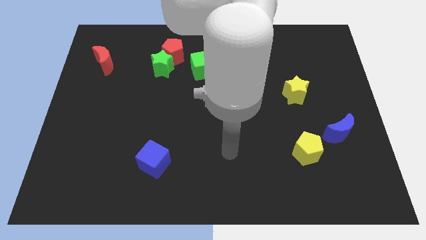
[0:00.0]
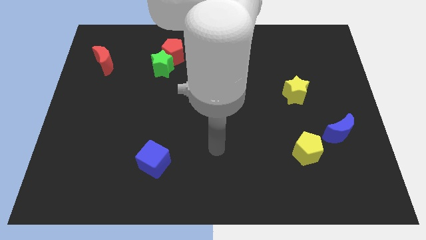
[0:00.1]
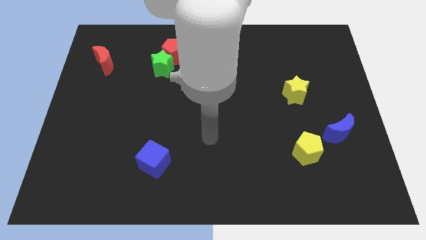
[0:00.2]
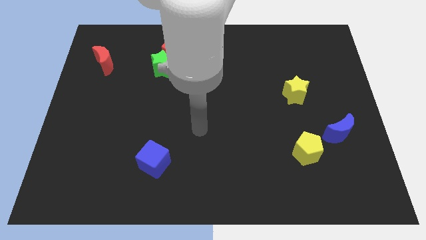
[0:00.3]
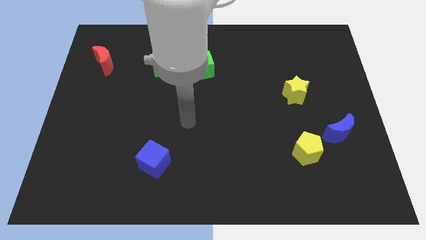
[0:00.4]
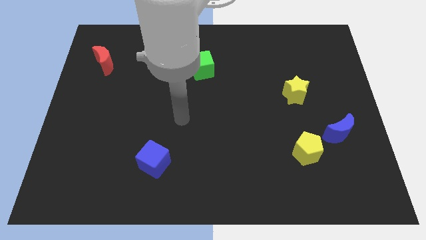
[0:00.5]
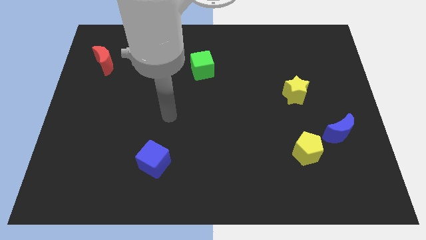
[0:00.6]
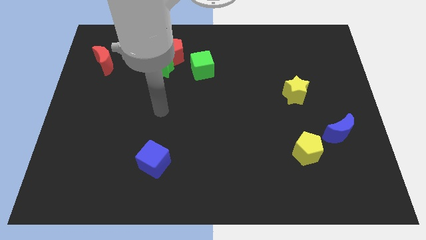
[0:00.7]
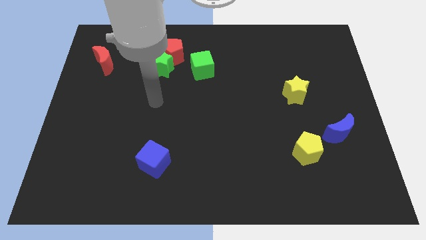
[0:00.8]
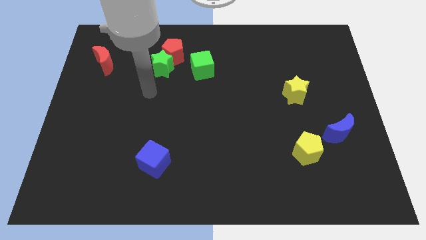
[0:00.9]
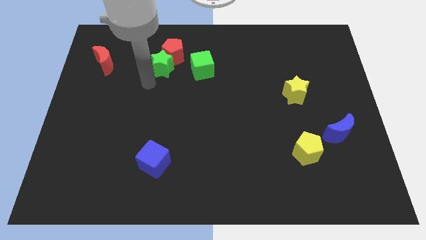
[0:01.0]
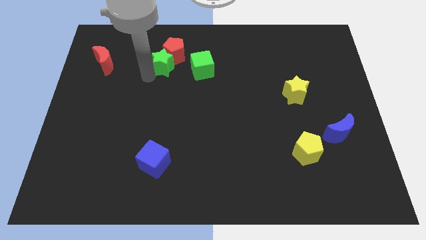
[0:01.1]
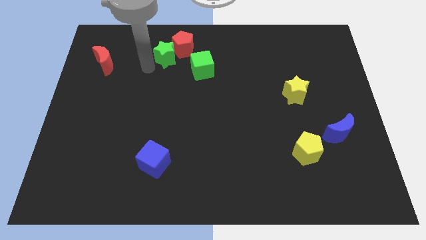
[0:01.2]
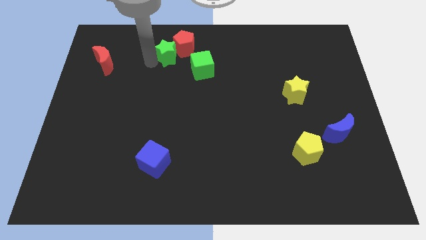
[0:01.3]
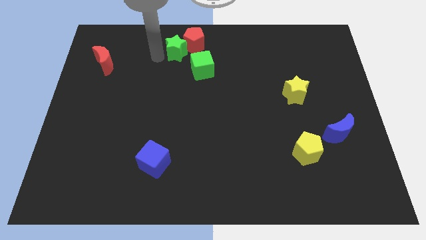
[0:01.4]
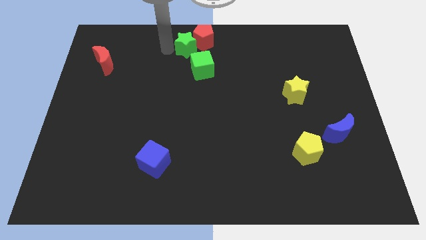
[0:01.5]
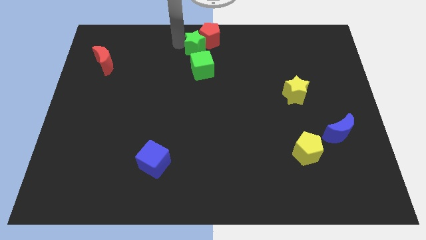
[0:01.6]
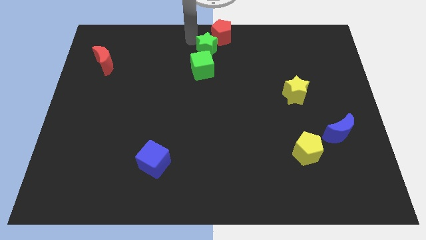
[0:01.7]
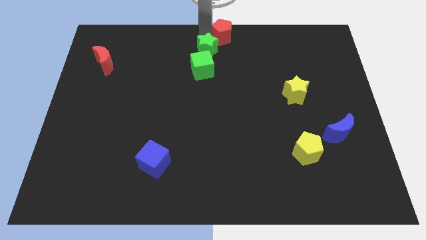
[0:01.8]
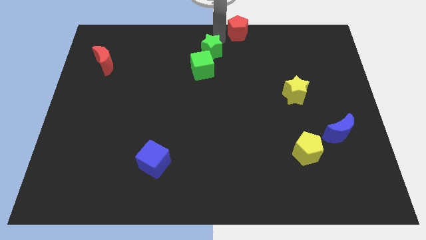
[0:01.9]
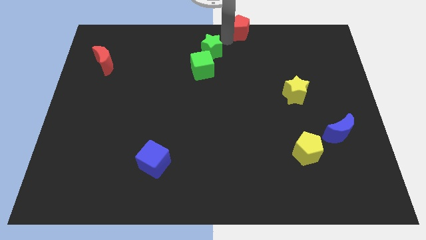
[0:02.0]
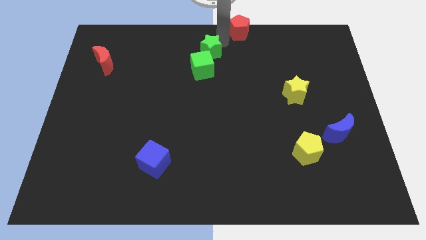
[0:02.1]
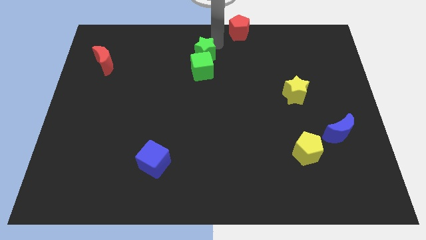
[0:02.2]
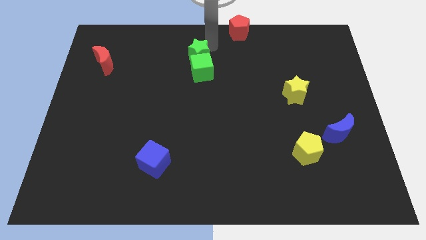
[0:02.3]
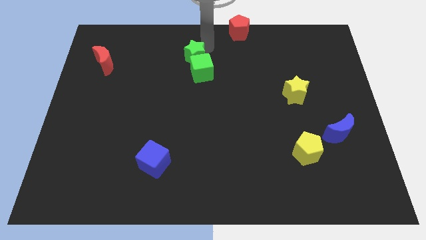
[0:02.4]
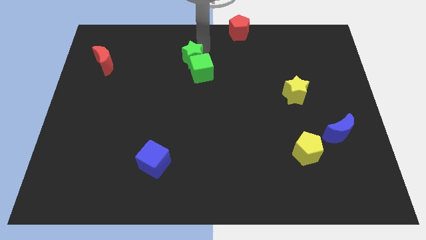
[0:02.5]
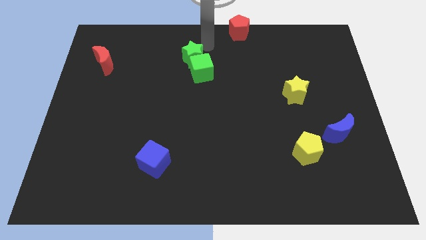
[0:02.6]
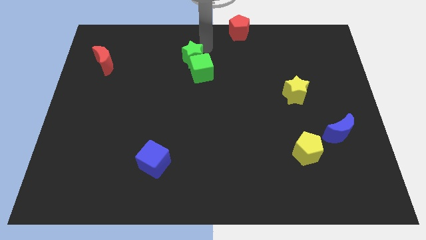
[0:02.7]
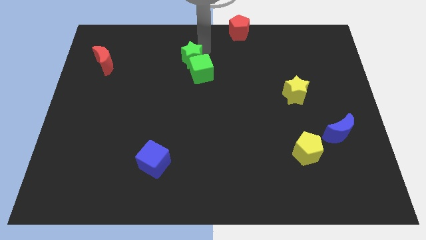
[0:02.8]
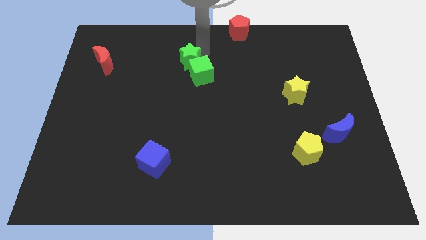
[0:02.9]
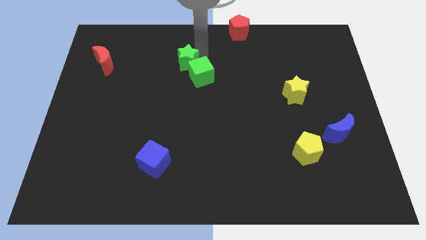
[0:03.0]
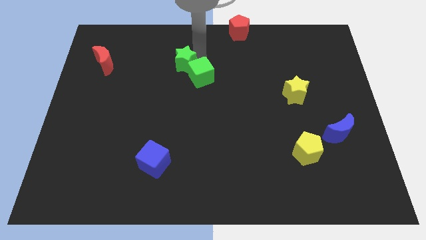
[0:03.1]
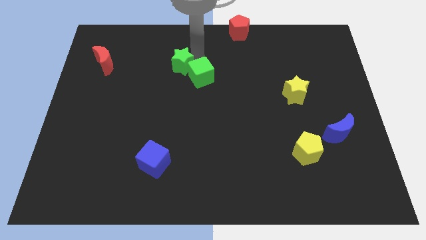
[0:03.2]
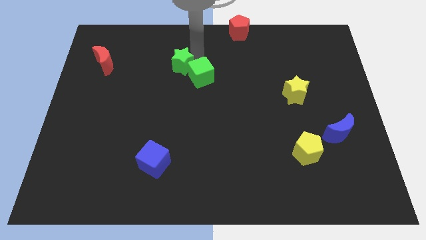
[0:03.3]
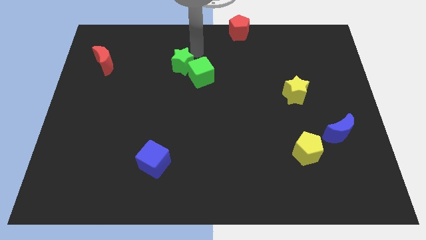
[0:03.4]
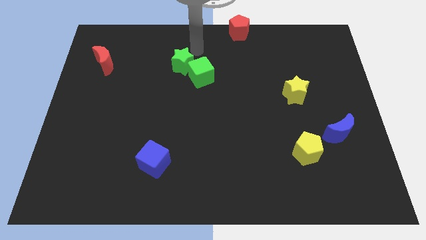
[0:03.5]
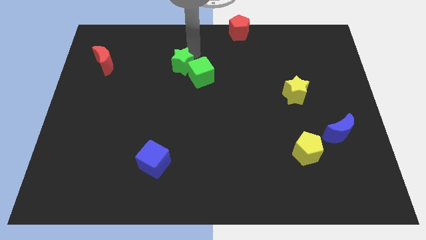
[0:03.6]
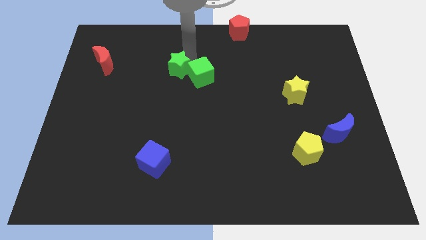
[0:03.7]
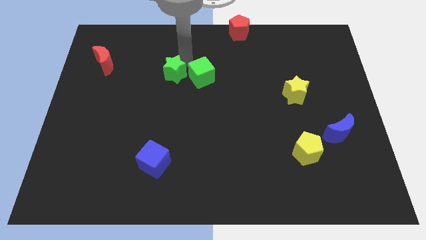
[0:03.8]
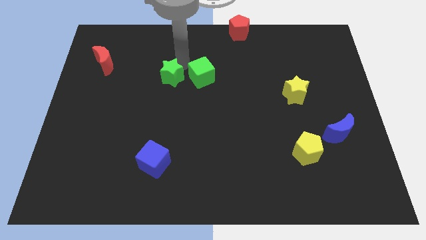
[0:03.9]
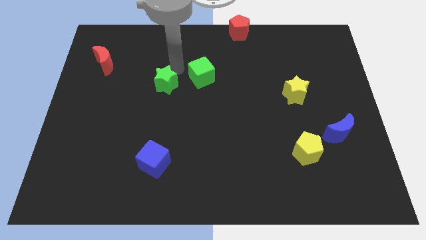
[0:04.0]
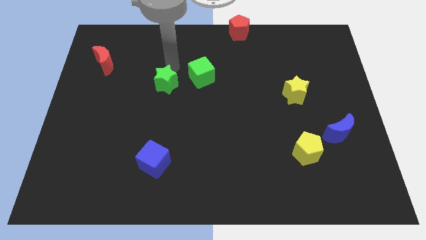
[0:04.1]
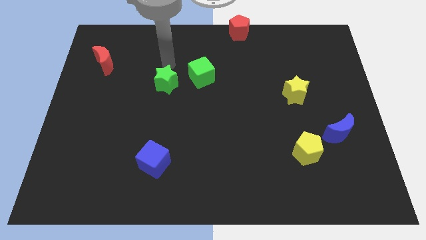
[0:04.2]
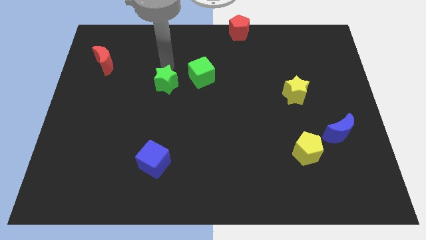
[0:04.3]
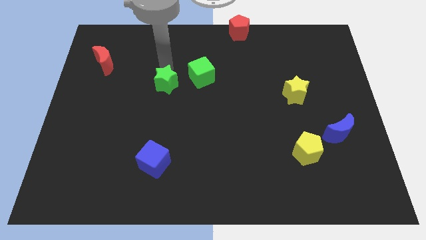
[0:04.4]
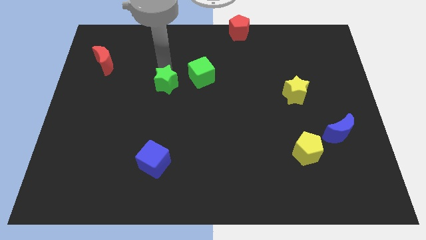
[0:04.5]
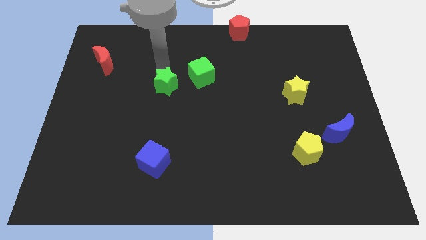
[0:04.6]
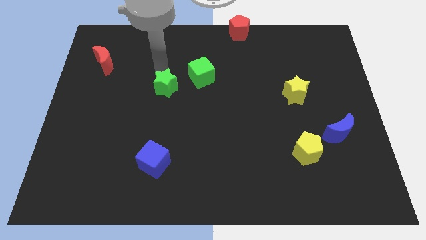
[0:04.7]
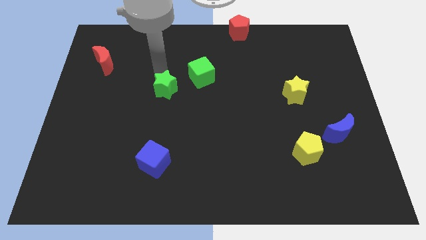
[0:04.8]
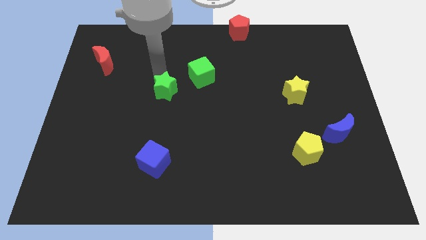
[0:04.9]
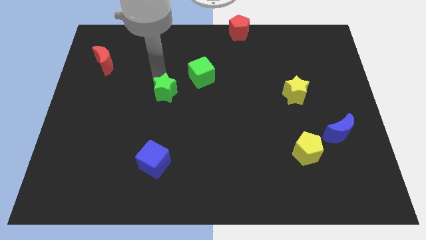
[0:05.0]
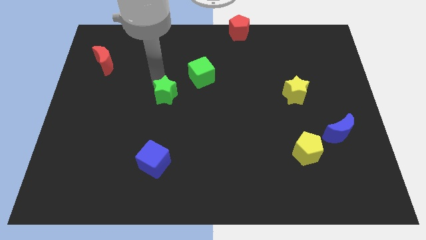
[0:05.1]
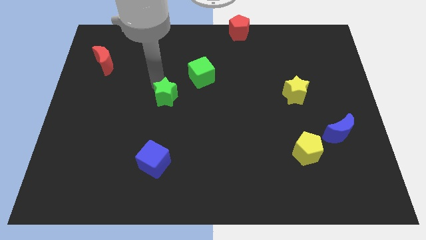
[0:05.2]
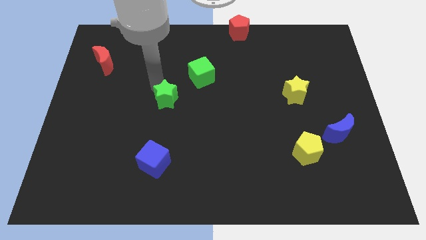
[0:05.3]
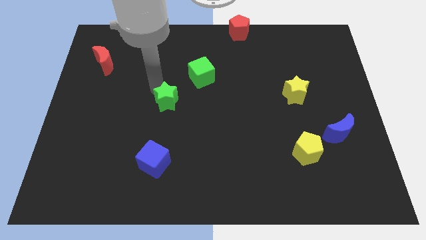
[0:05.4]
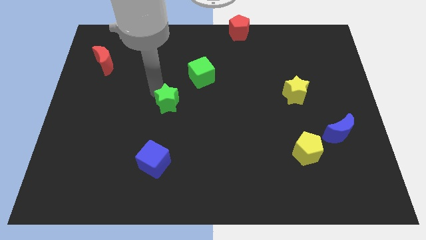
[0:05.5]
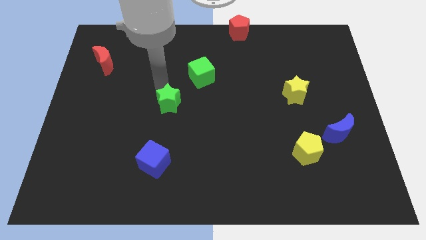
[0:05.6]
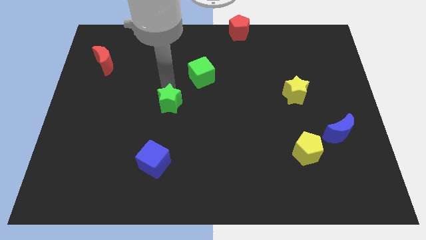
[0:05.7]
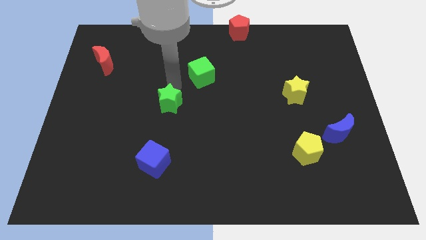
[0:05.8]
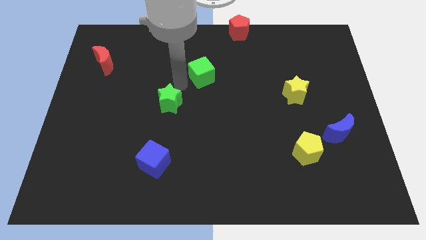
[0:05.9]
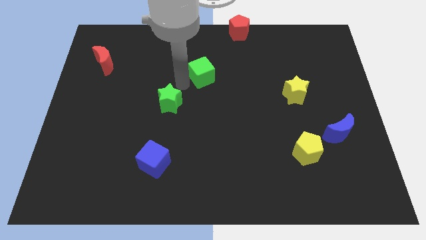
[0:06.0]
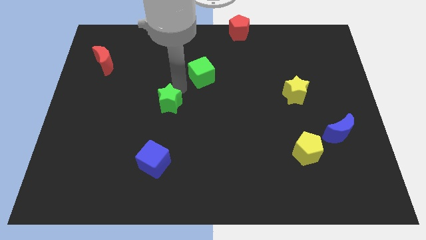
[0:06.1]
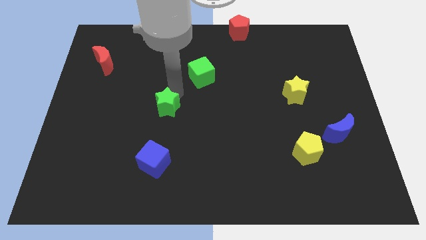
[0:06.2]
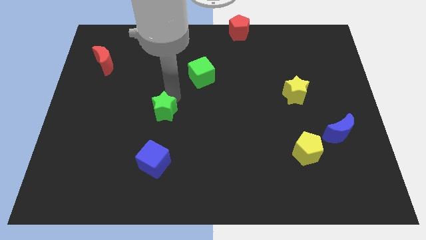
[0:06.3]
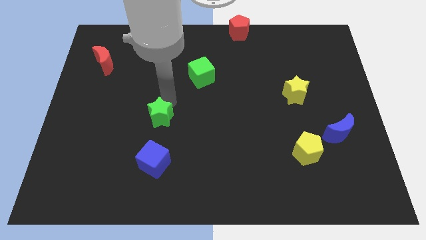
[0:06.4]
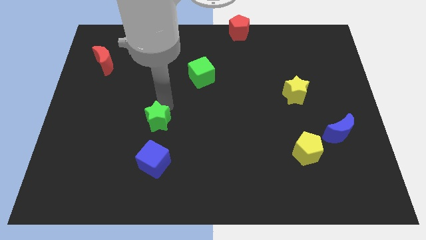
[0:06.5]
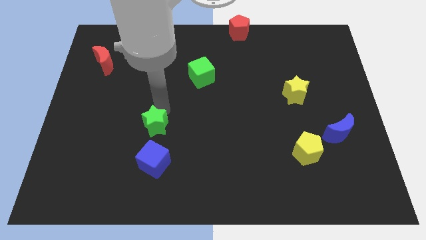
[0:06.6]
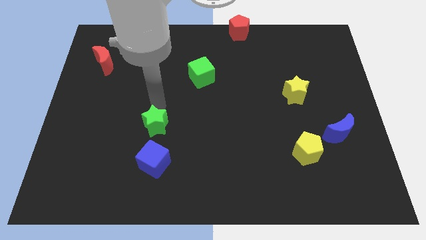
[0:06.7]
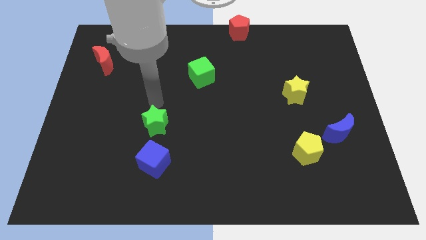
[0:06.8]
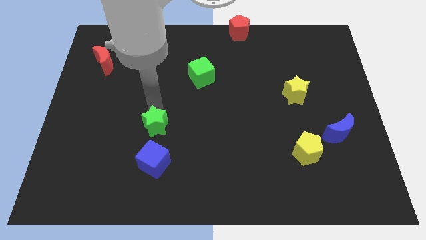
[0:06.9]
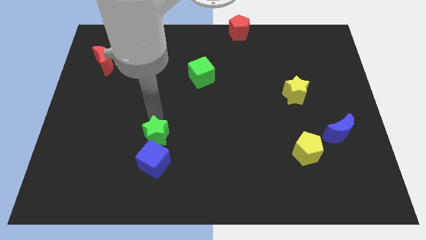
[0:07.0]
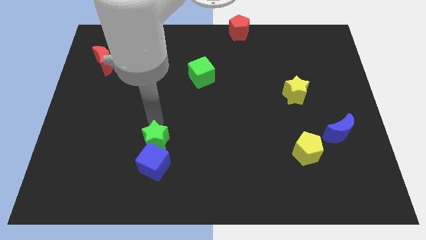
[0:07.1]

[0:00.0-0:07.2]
push the green star close to the blue cube

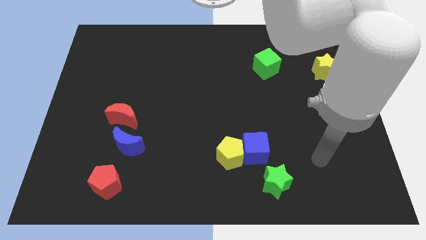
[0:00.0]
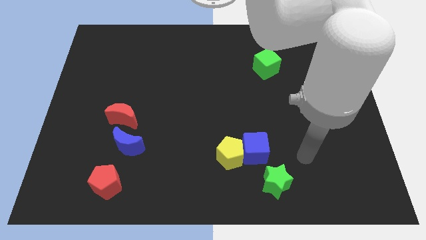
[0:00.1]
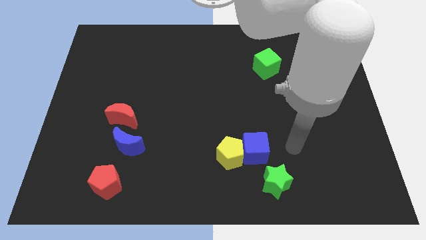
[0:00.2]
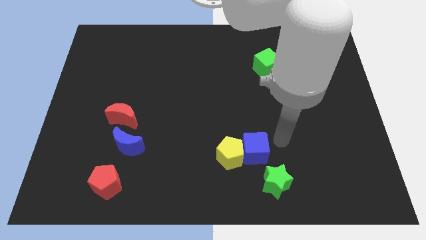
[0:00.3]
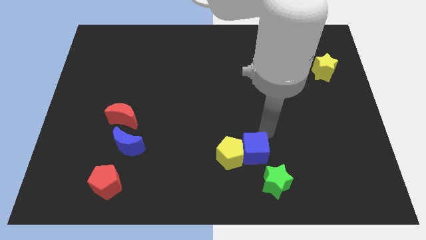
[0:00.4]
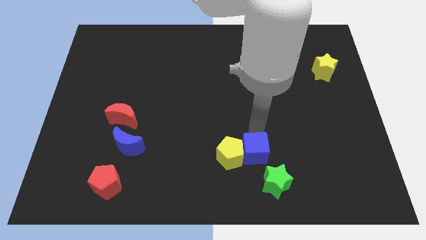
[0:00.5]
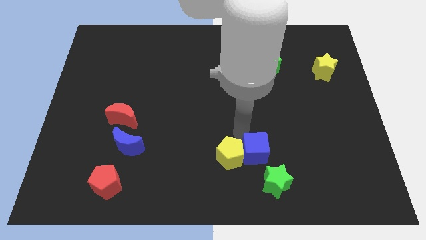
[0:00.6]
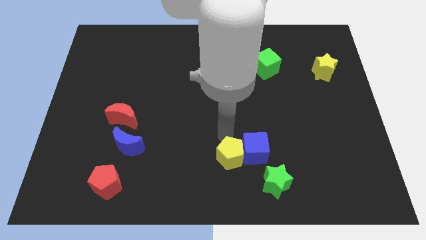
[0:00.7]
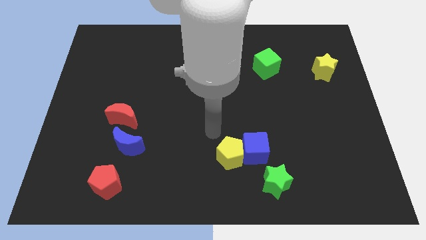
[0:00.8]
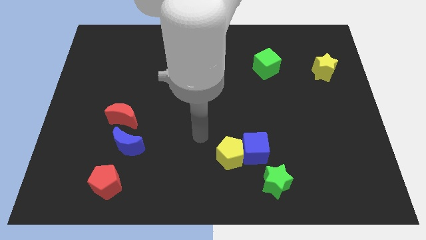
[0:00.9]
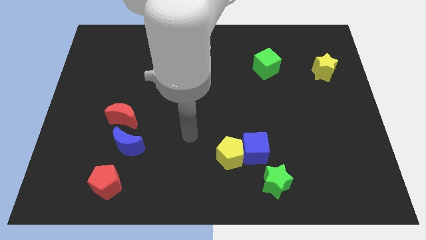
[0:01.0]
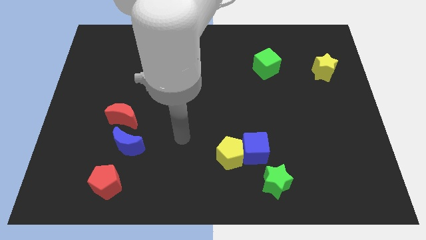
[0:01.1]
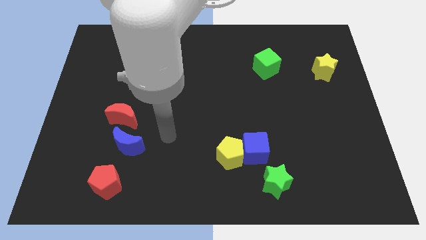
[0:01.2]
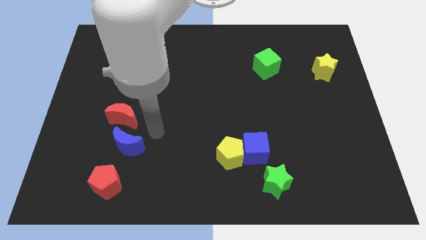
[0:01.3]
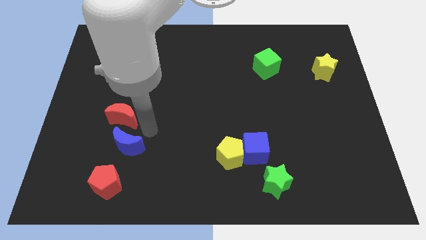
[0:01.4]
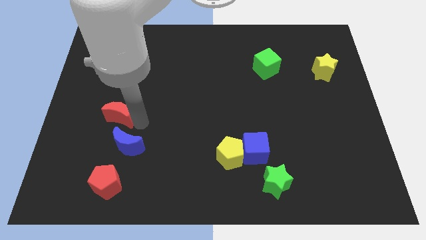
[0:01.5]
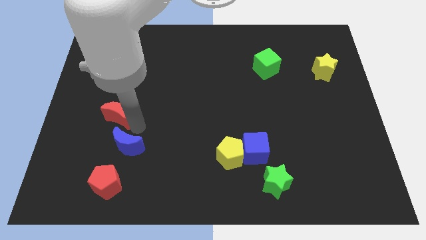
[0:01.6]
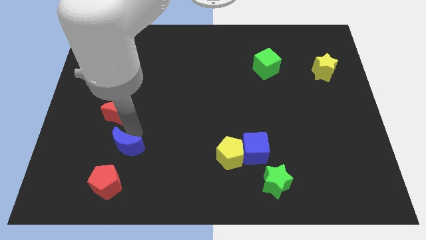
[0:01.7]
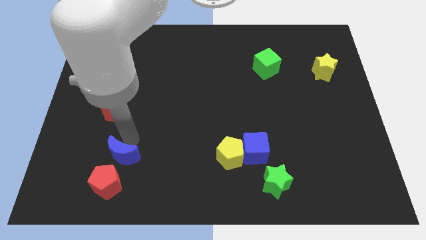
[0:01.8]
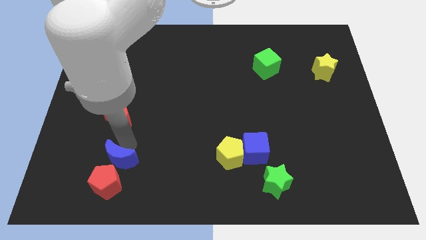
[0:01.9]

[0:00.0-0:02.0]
put the blue moon close to the red pentagon
